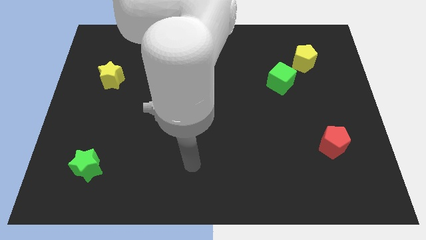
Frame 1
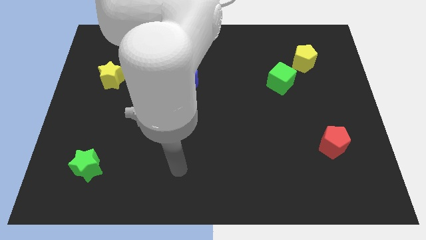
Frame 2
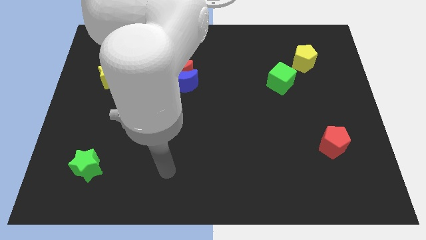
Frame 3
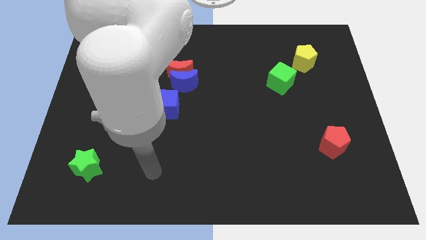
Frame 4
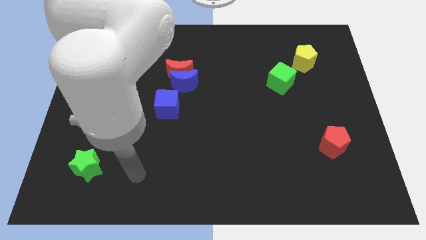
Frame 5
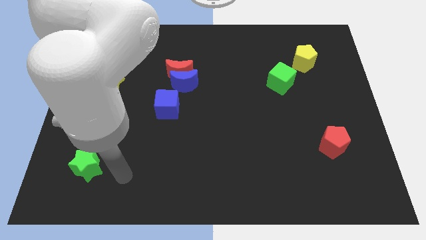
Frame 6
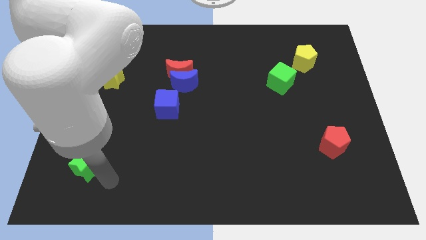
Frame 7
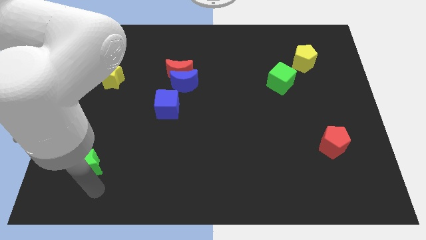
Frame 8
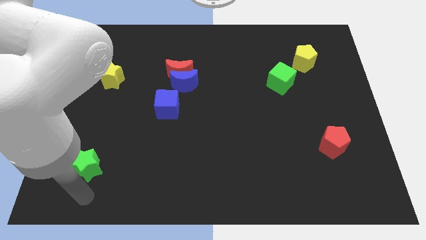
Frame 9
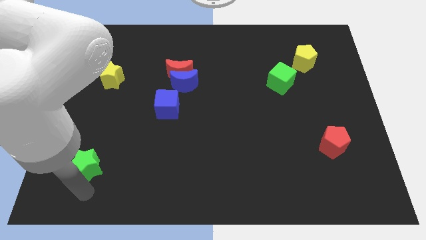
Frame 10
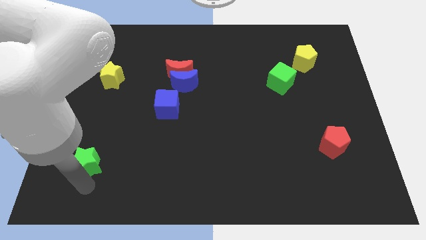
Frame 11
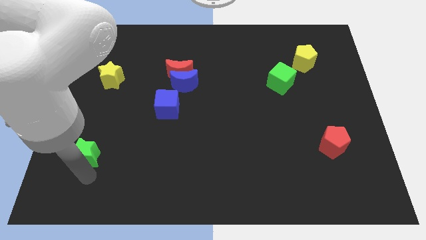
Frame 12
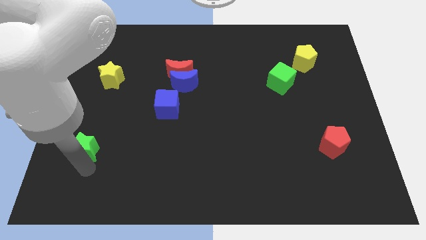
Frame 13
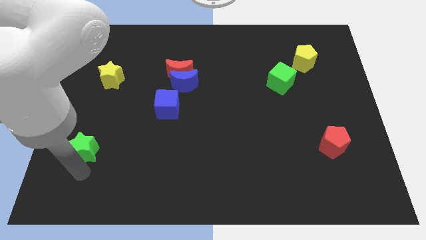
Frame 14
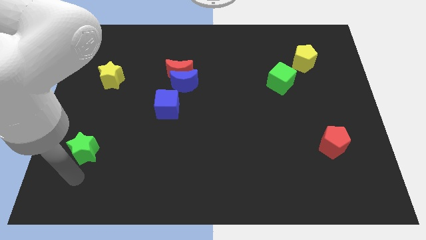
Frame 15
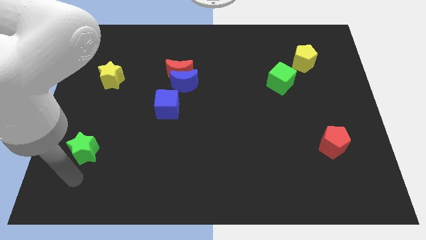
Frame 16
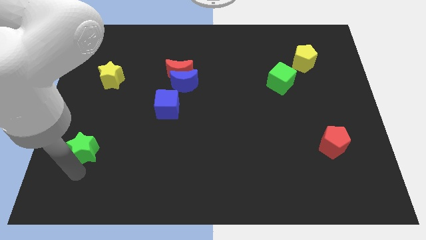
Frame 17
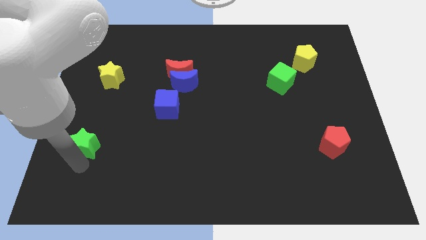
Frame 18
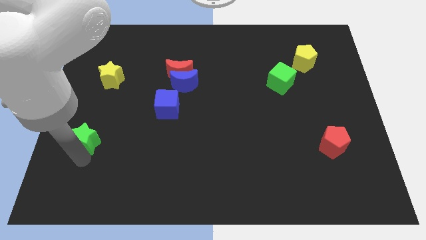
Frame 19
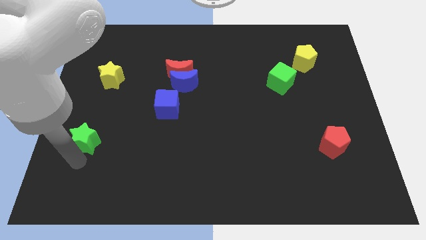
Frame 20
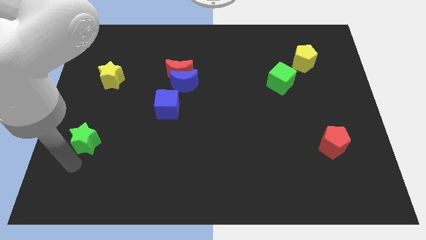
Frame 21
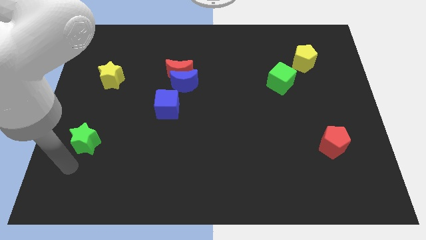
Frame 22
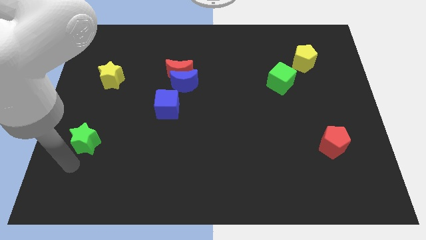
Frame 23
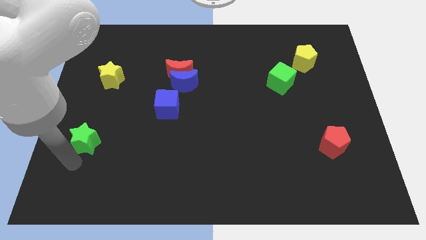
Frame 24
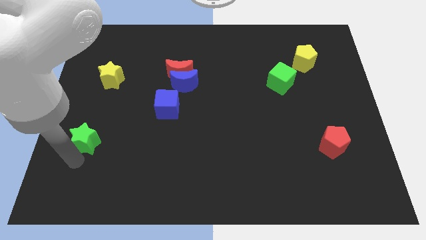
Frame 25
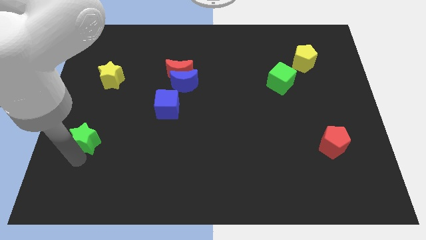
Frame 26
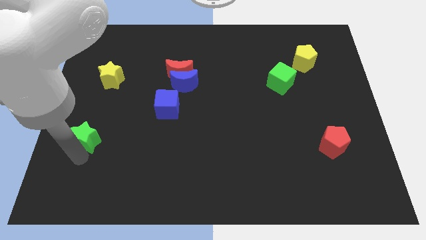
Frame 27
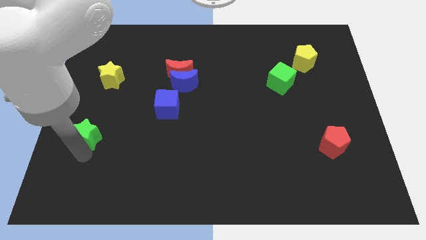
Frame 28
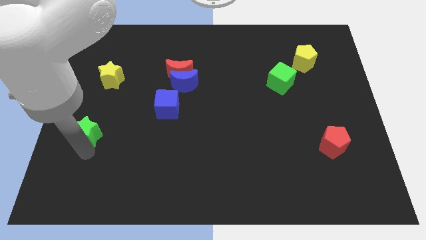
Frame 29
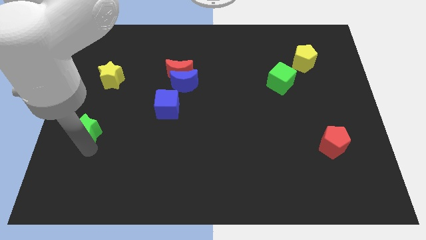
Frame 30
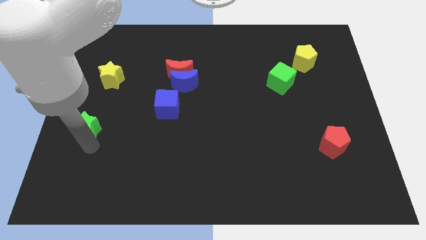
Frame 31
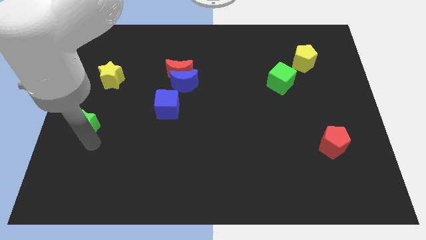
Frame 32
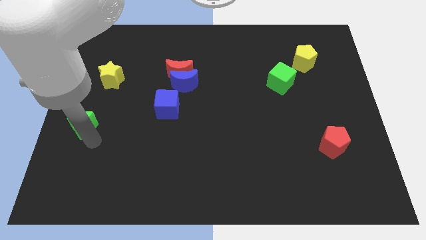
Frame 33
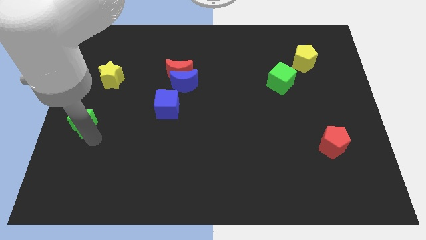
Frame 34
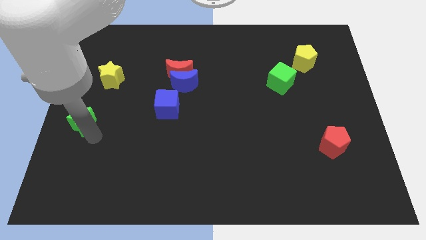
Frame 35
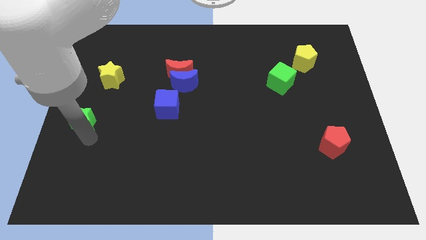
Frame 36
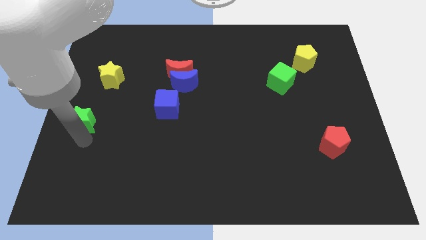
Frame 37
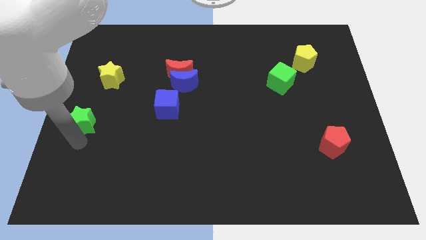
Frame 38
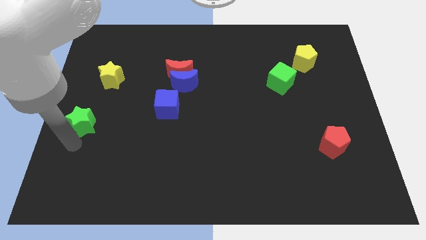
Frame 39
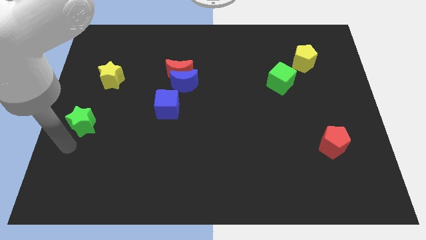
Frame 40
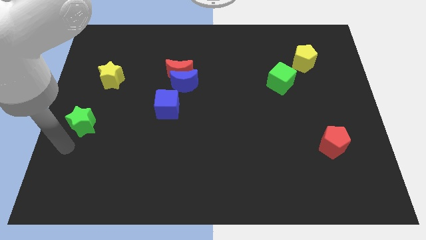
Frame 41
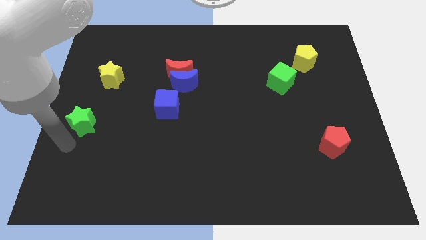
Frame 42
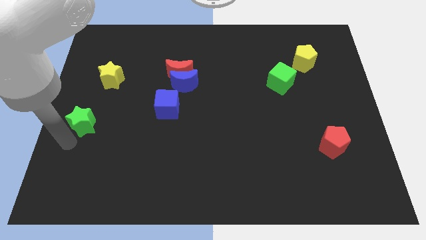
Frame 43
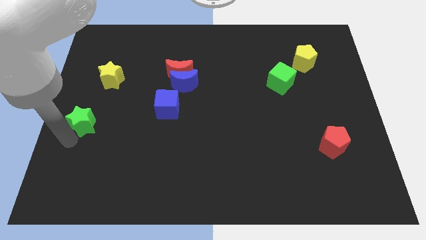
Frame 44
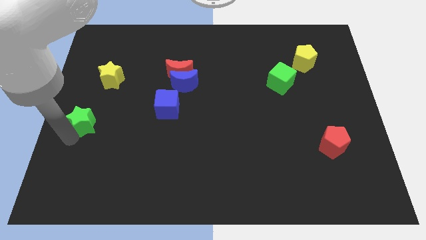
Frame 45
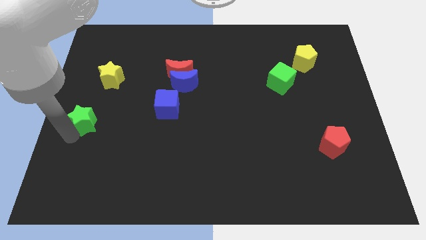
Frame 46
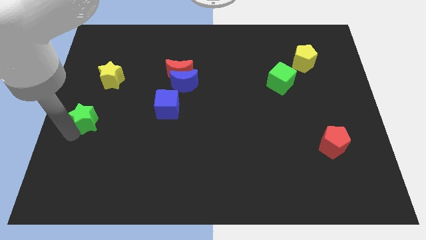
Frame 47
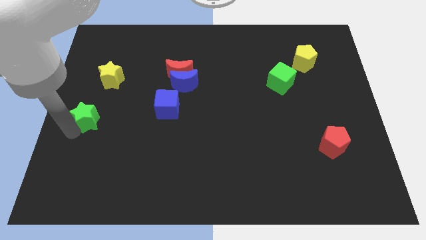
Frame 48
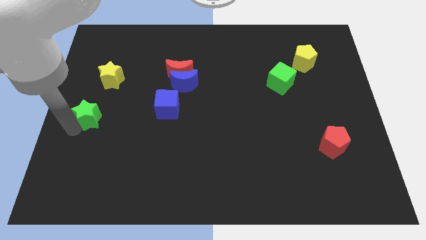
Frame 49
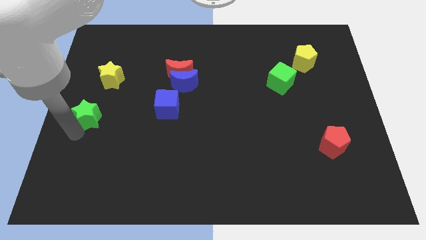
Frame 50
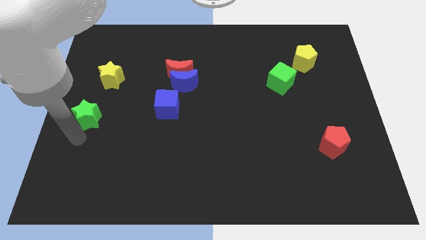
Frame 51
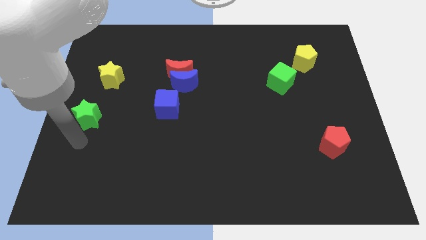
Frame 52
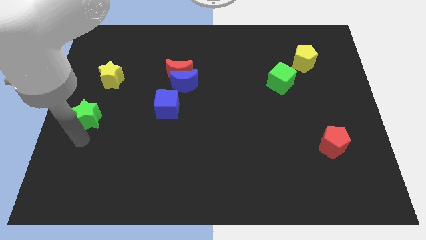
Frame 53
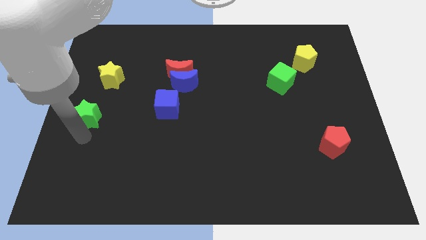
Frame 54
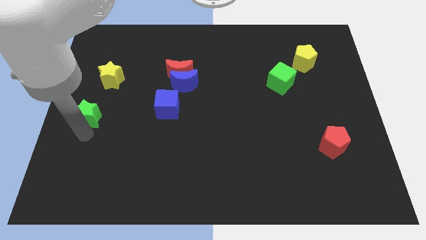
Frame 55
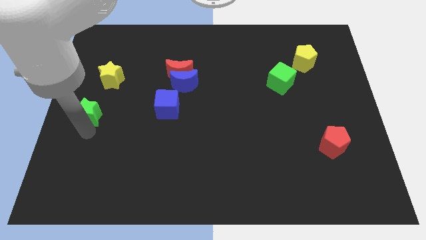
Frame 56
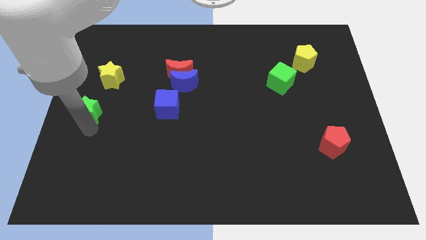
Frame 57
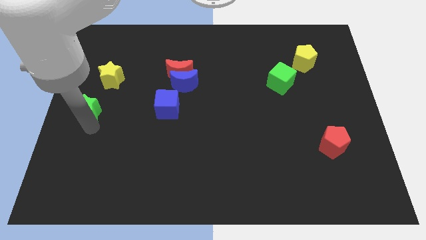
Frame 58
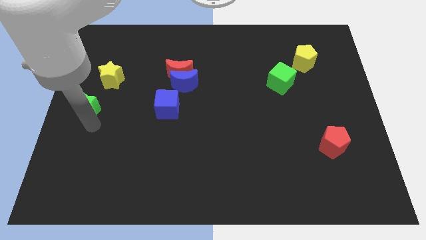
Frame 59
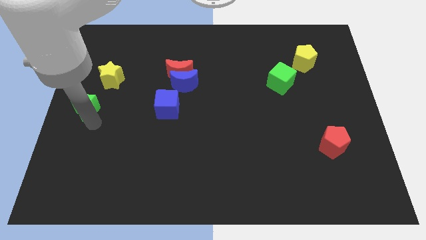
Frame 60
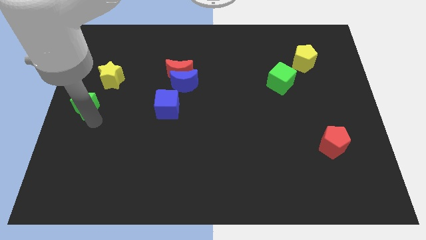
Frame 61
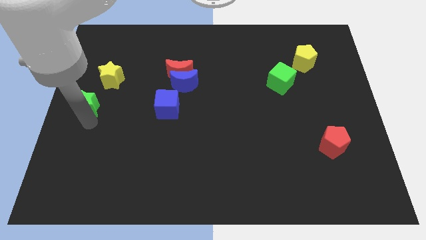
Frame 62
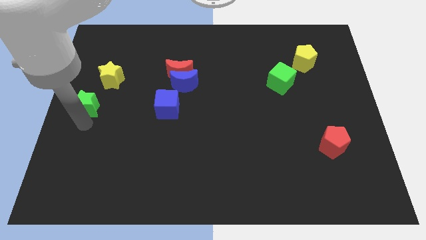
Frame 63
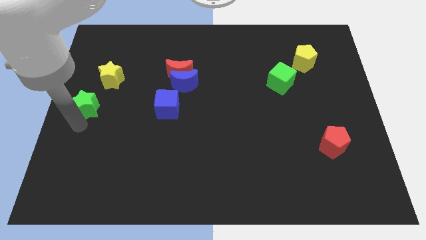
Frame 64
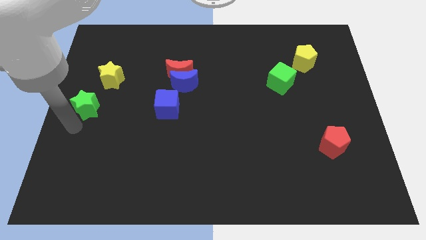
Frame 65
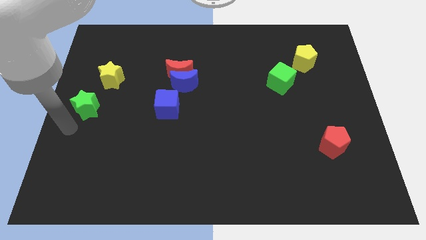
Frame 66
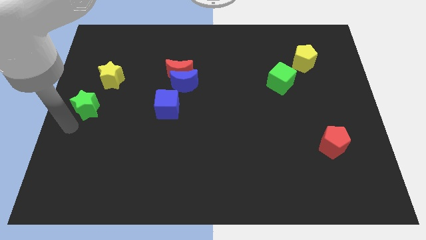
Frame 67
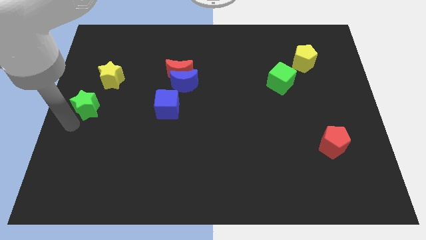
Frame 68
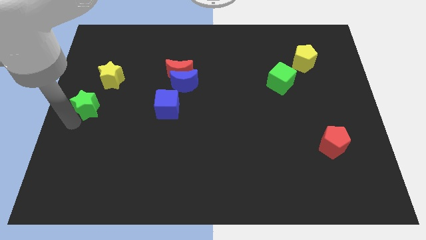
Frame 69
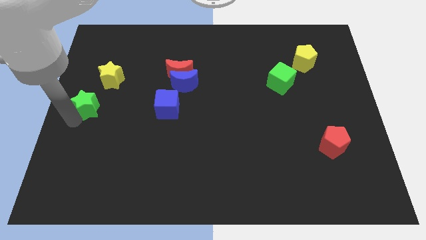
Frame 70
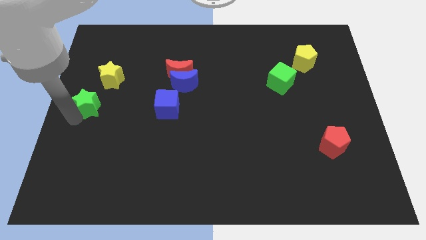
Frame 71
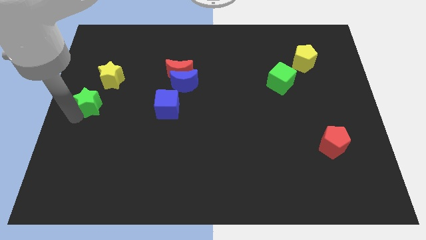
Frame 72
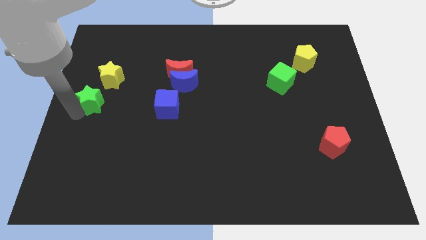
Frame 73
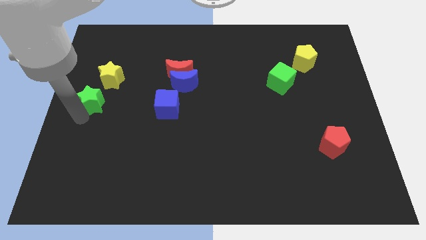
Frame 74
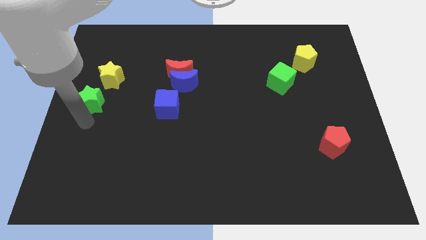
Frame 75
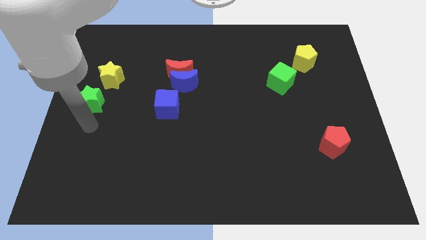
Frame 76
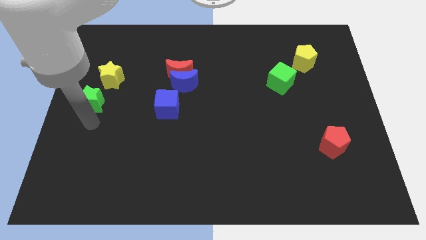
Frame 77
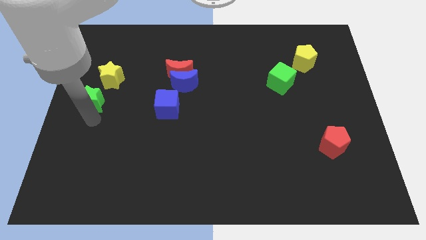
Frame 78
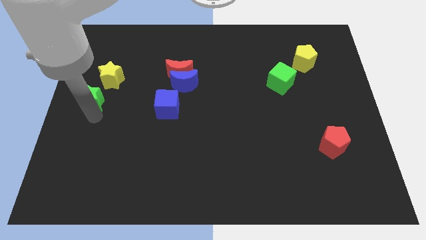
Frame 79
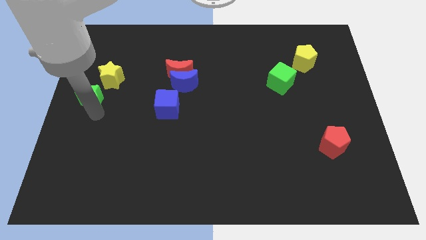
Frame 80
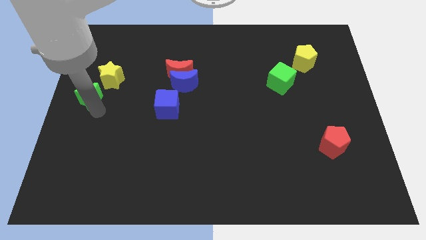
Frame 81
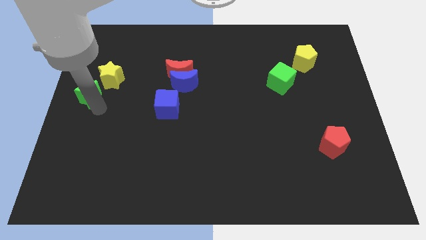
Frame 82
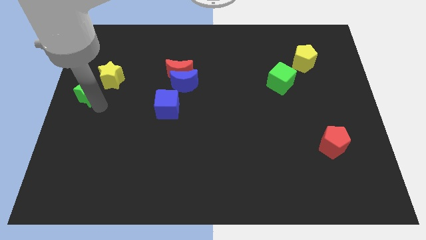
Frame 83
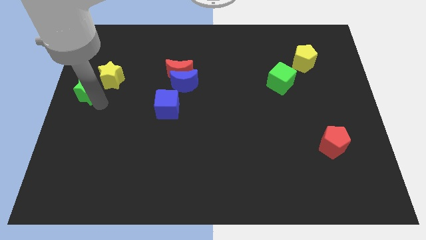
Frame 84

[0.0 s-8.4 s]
push the green star up

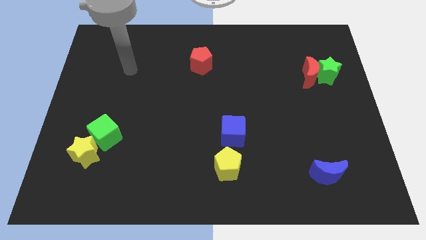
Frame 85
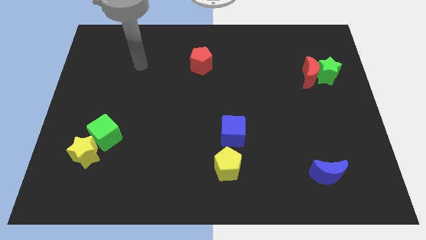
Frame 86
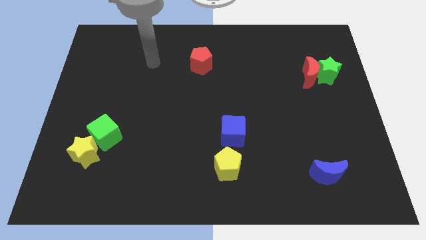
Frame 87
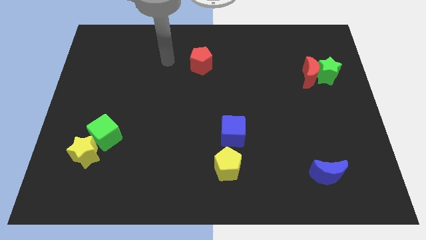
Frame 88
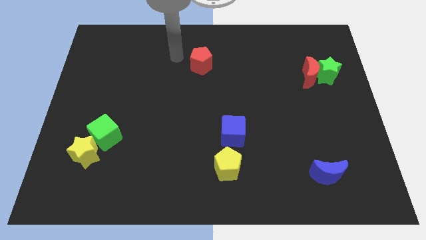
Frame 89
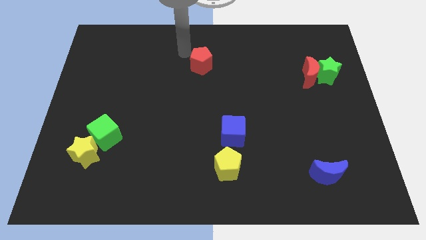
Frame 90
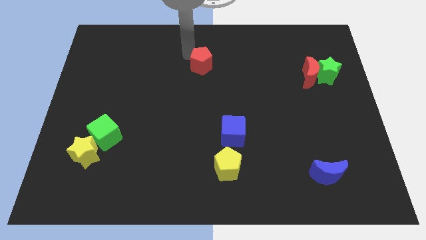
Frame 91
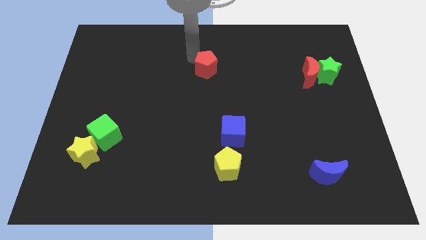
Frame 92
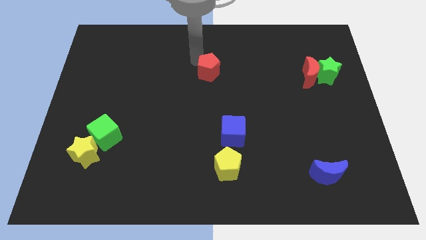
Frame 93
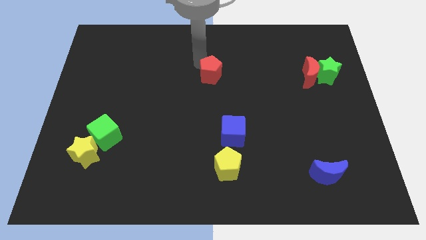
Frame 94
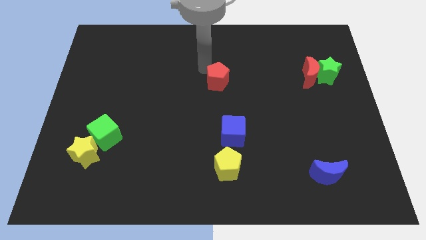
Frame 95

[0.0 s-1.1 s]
push the red pentagon down and right diagonally somewhat
